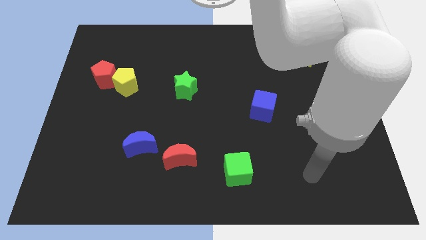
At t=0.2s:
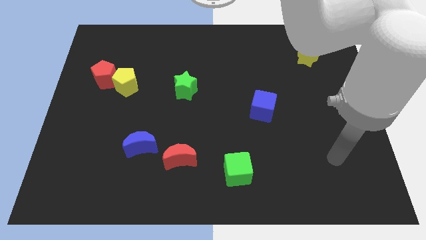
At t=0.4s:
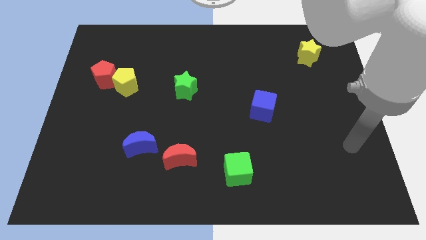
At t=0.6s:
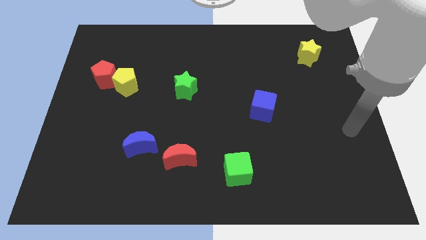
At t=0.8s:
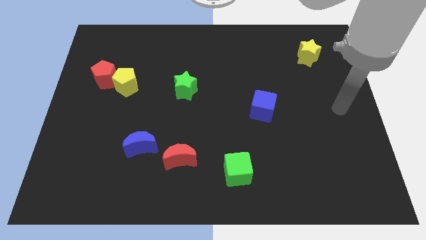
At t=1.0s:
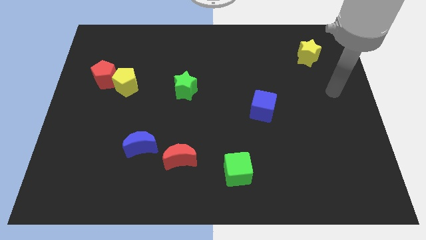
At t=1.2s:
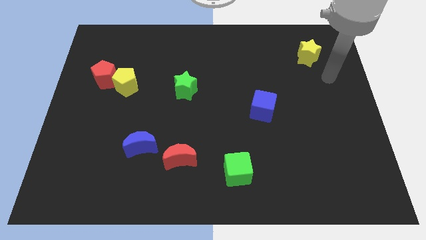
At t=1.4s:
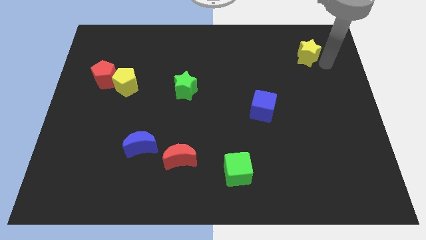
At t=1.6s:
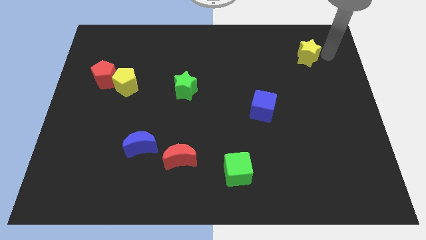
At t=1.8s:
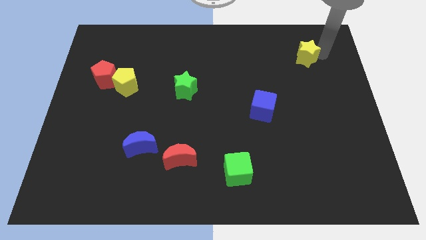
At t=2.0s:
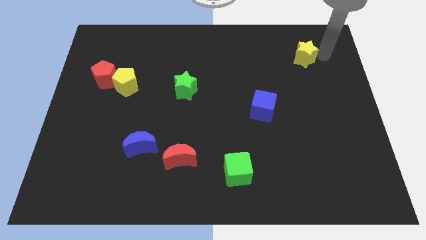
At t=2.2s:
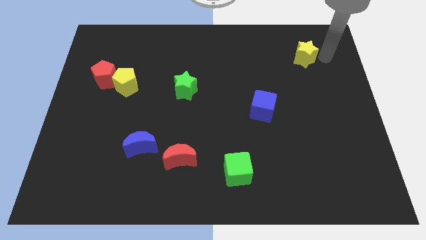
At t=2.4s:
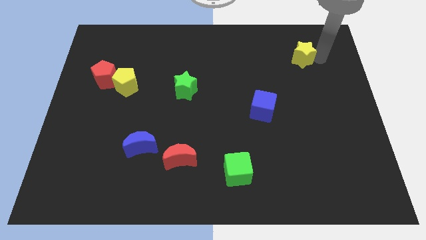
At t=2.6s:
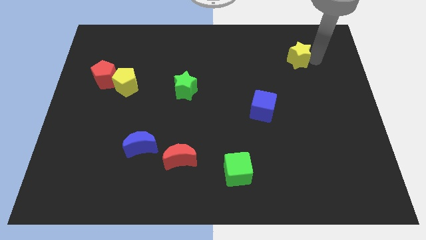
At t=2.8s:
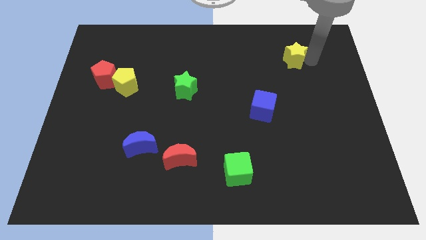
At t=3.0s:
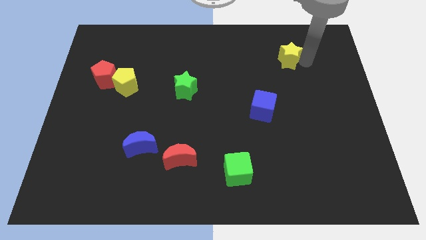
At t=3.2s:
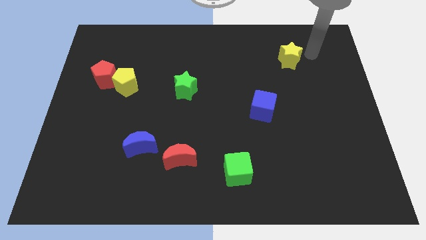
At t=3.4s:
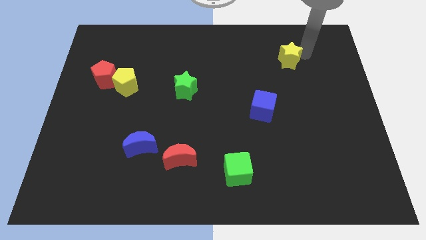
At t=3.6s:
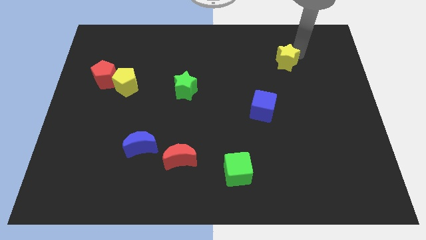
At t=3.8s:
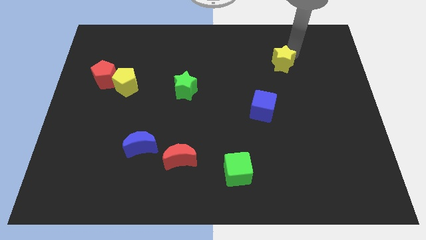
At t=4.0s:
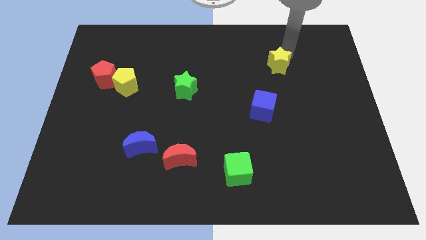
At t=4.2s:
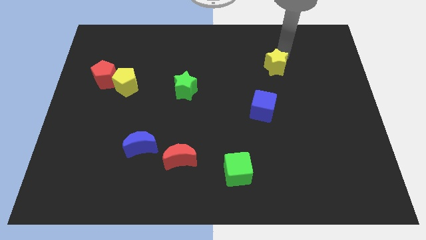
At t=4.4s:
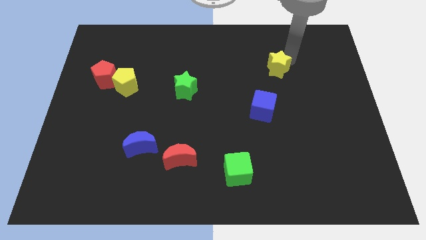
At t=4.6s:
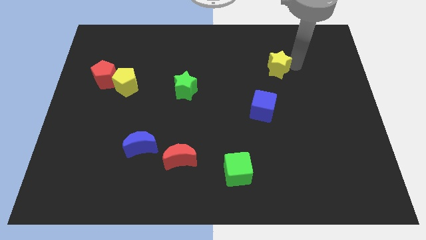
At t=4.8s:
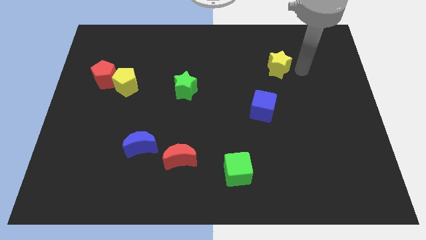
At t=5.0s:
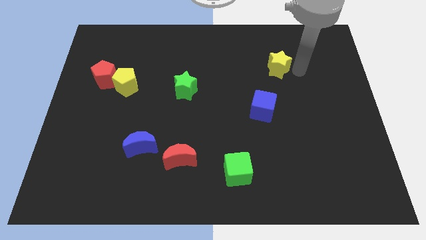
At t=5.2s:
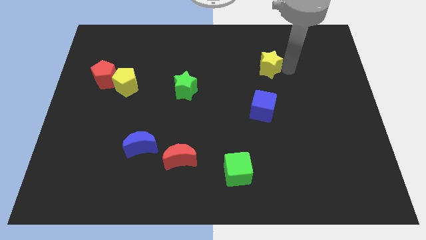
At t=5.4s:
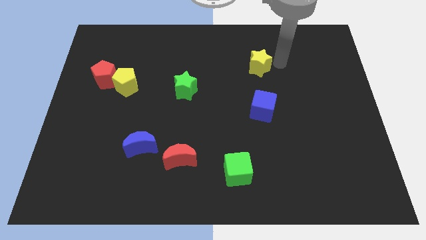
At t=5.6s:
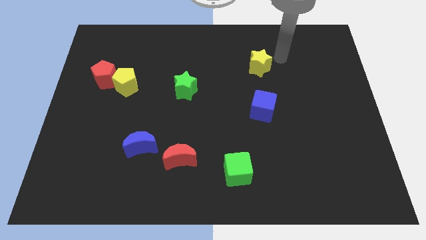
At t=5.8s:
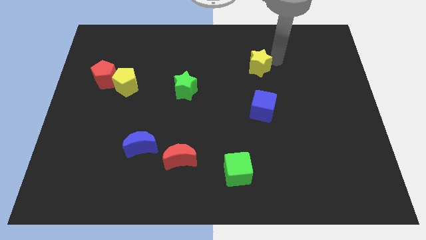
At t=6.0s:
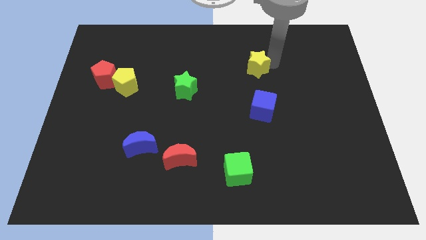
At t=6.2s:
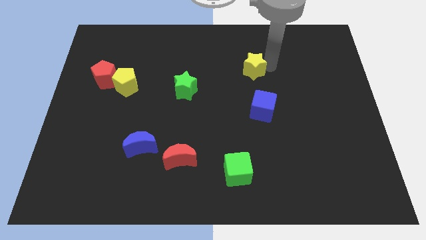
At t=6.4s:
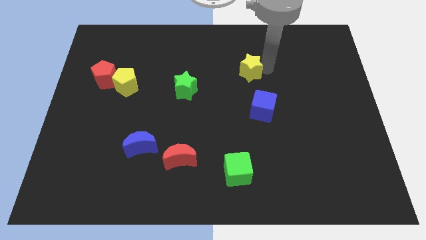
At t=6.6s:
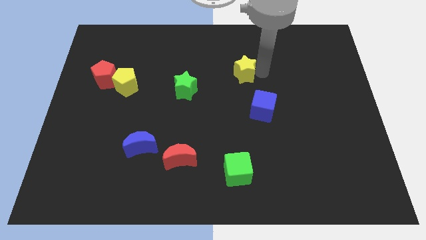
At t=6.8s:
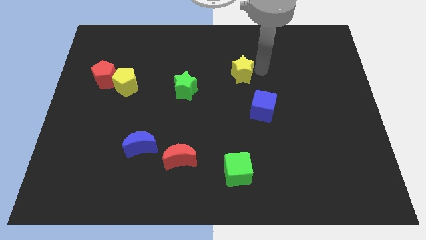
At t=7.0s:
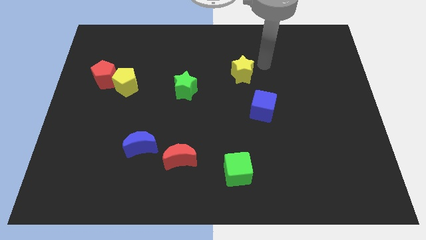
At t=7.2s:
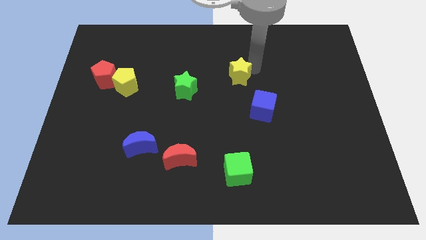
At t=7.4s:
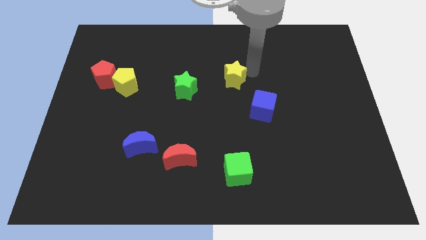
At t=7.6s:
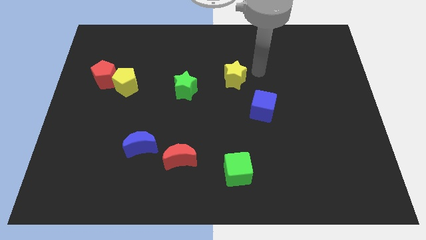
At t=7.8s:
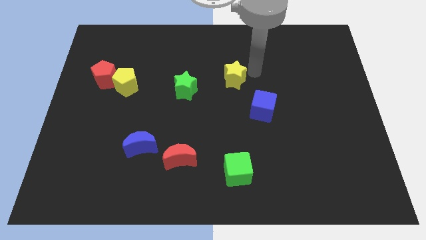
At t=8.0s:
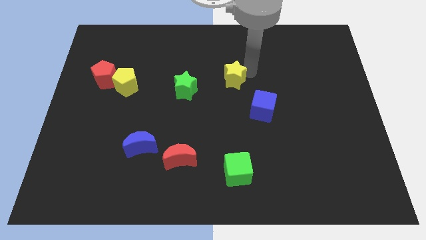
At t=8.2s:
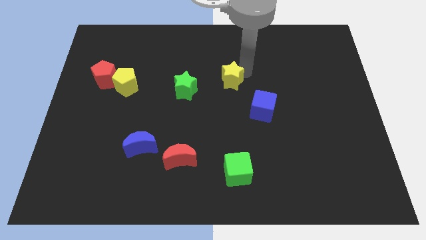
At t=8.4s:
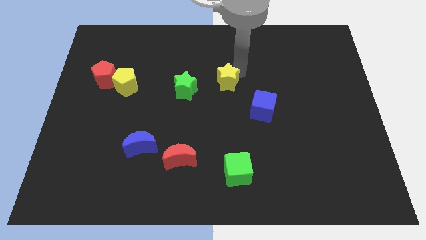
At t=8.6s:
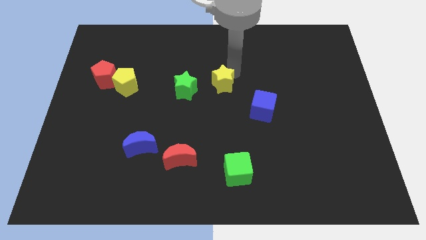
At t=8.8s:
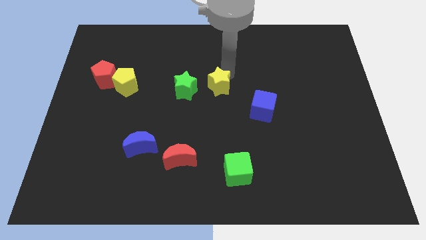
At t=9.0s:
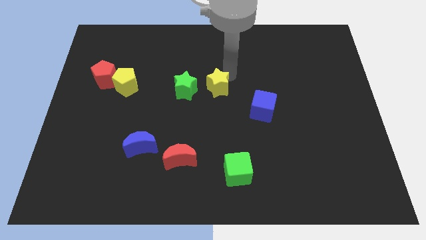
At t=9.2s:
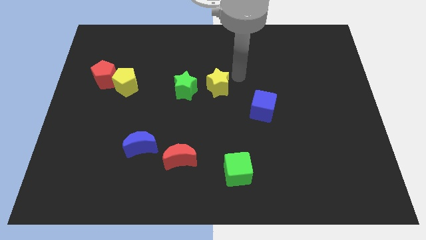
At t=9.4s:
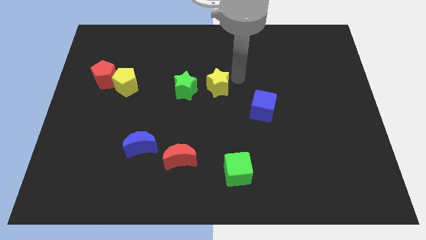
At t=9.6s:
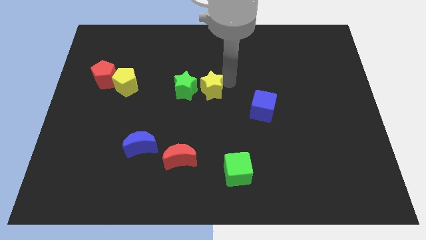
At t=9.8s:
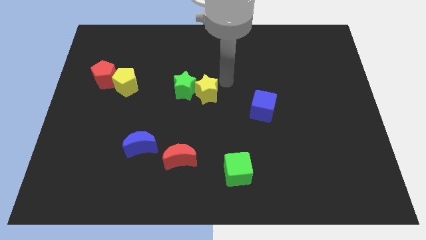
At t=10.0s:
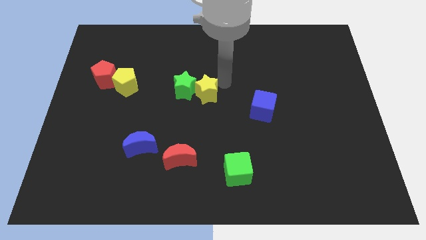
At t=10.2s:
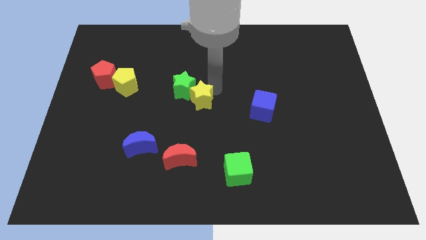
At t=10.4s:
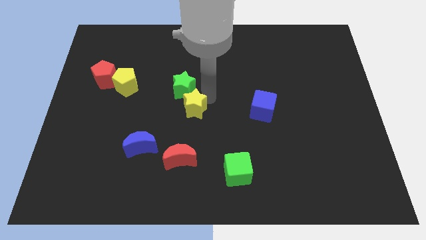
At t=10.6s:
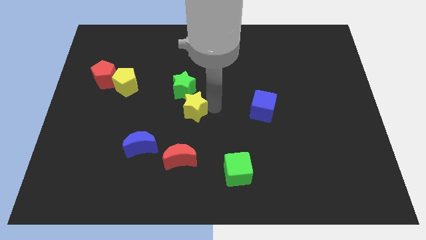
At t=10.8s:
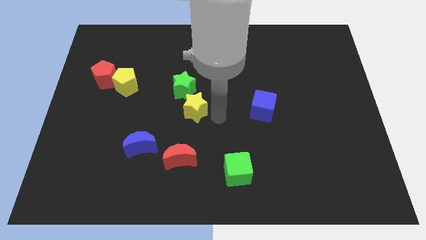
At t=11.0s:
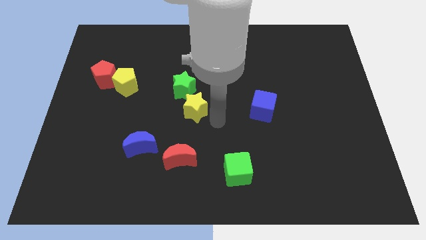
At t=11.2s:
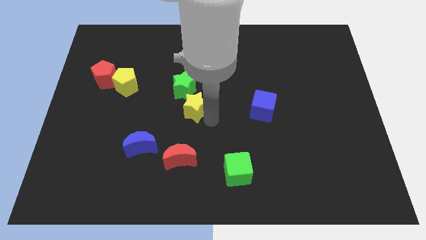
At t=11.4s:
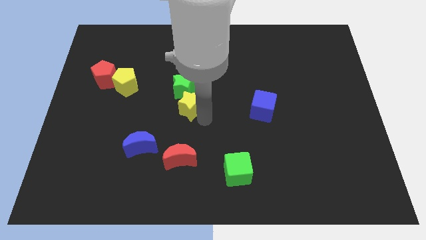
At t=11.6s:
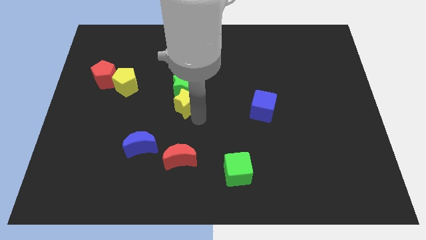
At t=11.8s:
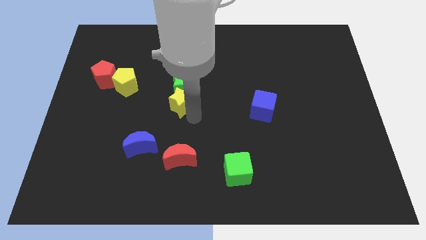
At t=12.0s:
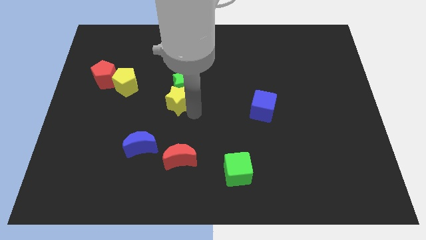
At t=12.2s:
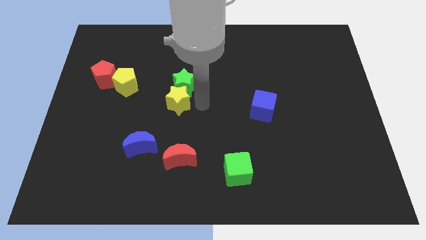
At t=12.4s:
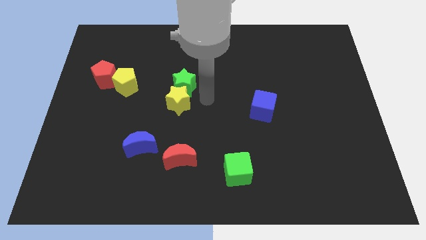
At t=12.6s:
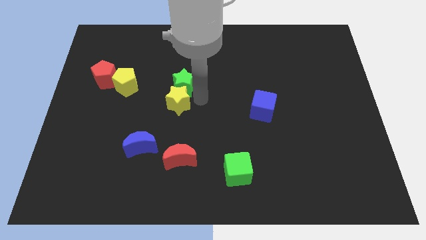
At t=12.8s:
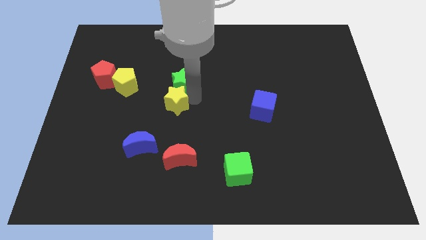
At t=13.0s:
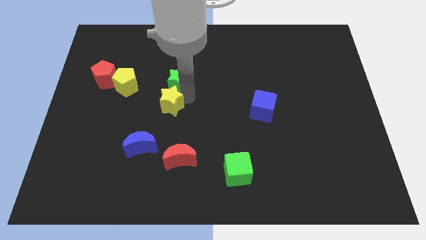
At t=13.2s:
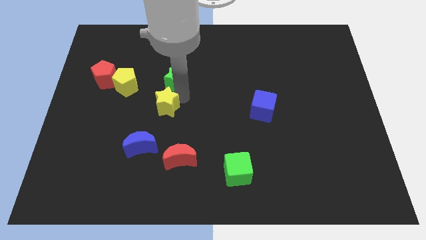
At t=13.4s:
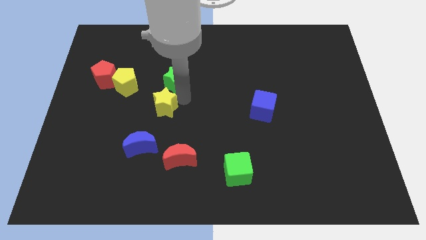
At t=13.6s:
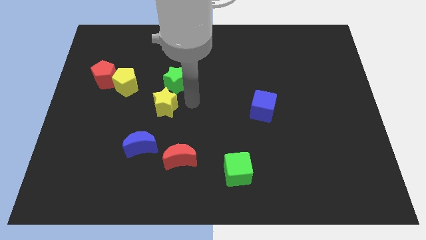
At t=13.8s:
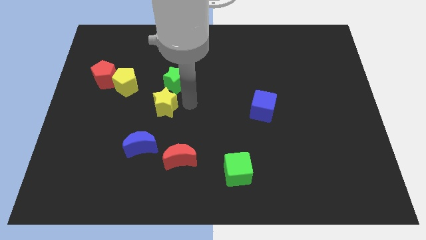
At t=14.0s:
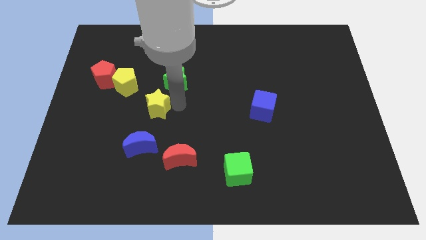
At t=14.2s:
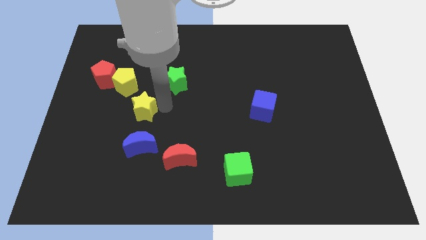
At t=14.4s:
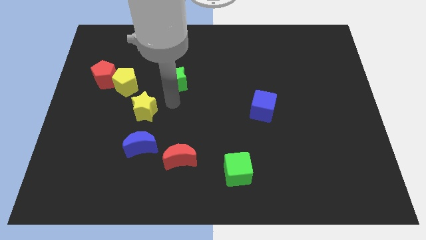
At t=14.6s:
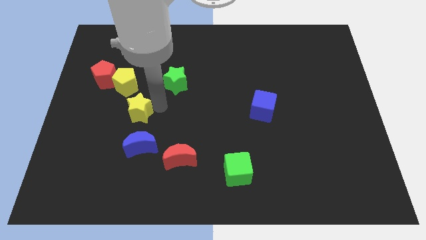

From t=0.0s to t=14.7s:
slide the yellow star to the bottom side of the yellow pentagon

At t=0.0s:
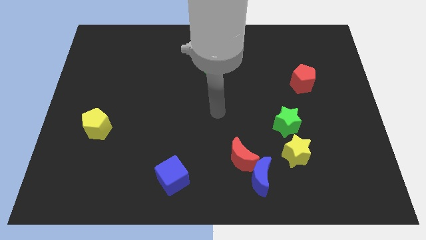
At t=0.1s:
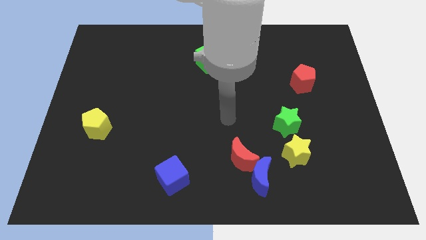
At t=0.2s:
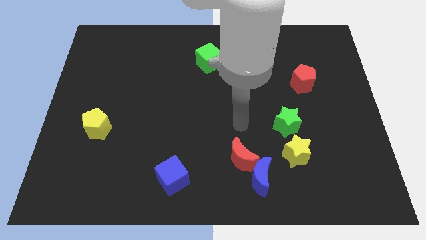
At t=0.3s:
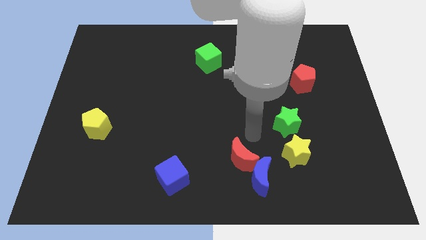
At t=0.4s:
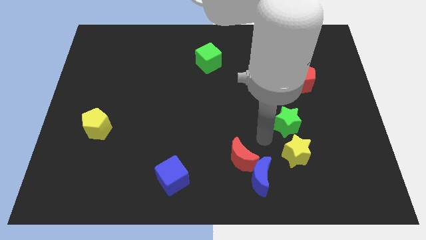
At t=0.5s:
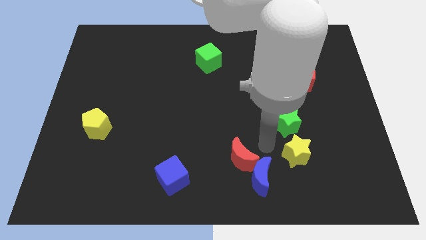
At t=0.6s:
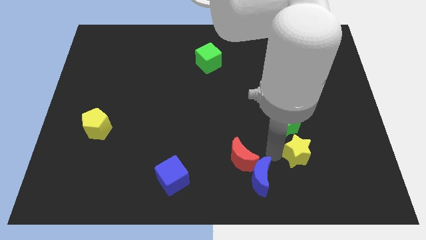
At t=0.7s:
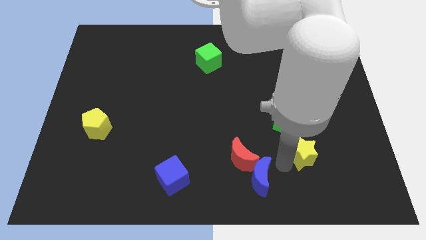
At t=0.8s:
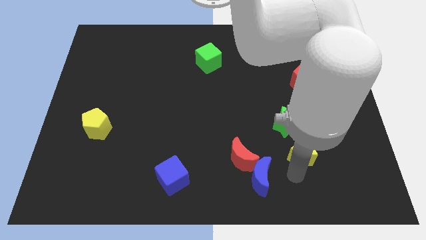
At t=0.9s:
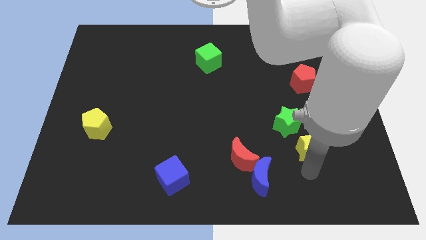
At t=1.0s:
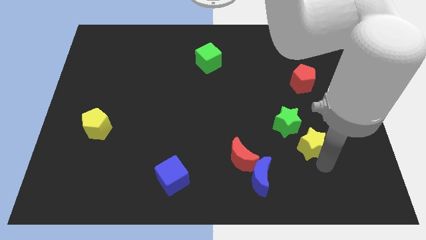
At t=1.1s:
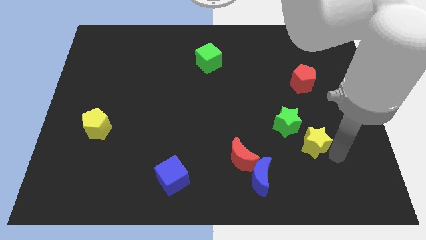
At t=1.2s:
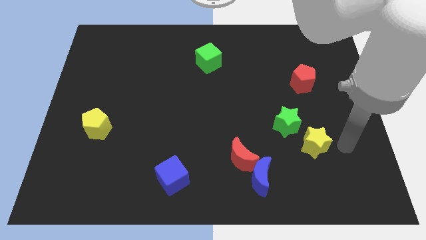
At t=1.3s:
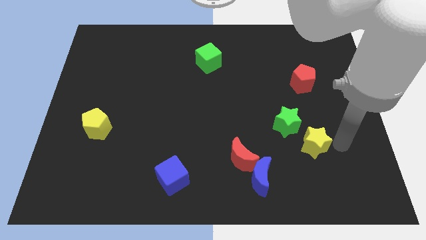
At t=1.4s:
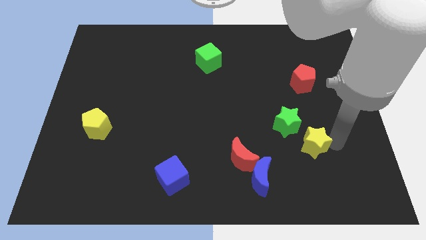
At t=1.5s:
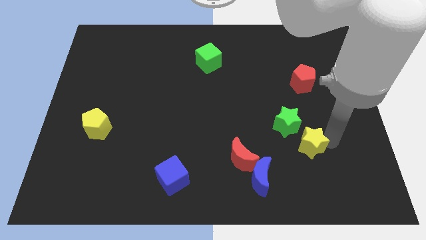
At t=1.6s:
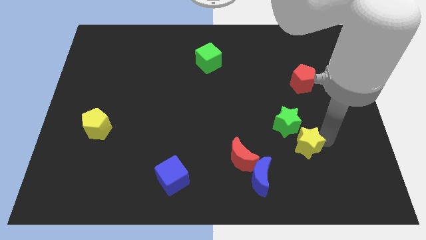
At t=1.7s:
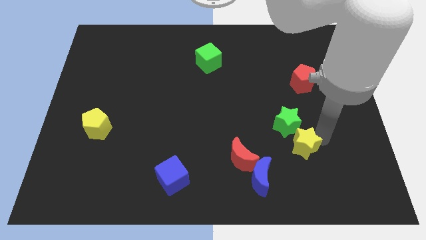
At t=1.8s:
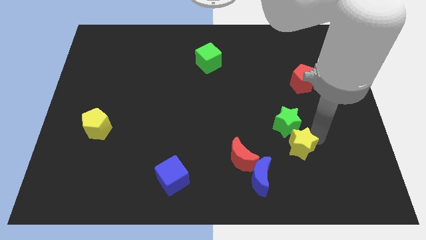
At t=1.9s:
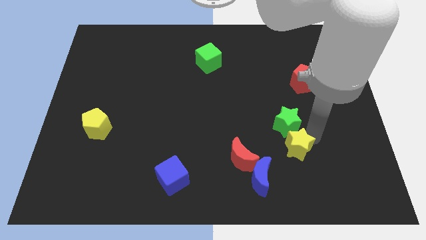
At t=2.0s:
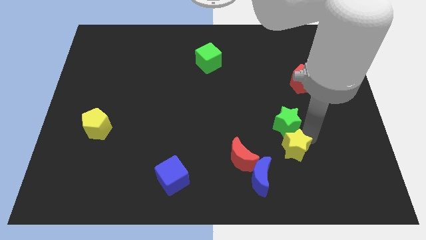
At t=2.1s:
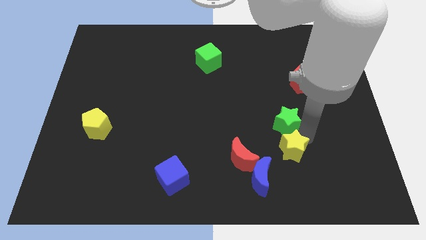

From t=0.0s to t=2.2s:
move the yellow star to the bottom left of the green star
